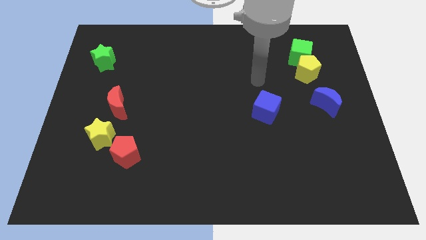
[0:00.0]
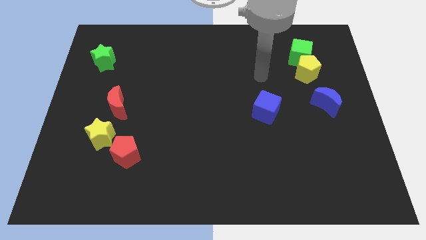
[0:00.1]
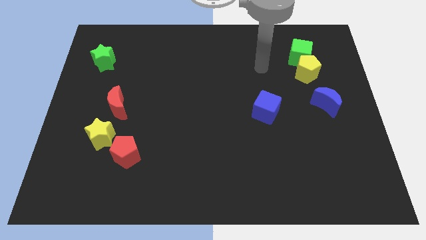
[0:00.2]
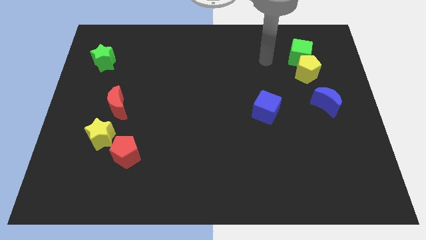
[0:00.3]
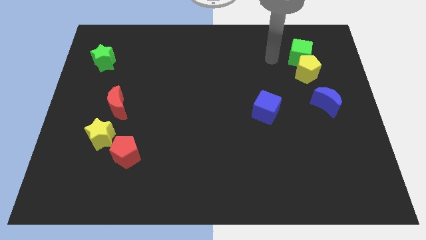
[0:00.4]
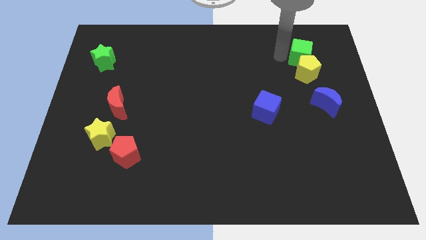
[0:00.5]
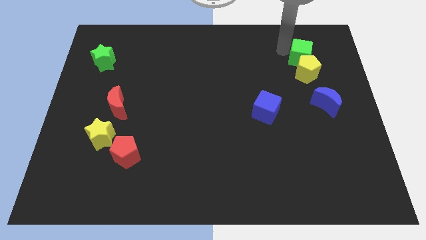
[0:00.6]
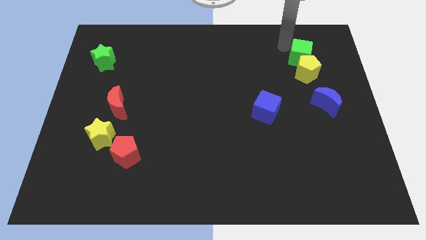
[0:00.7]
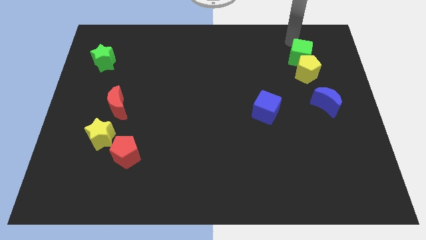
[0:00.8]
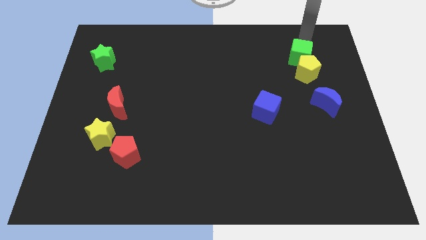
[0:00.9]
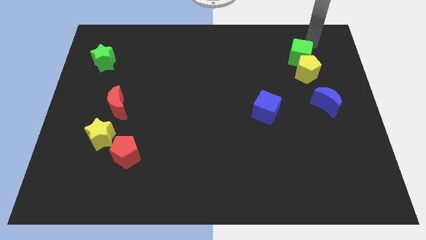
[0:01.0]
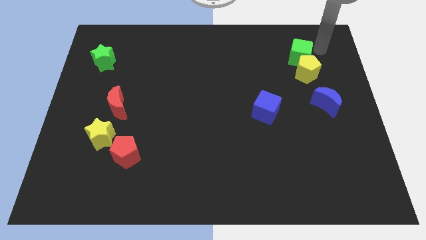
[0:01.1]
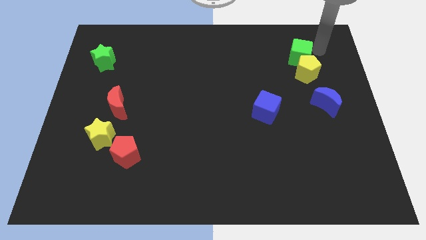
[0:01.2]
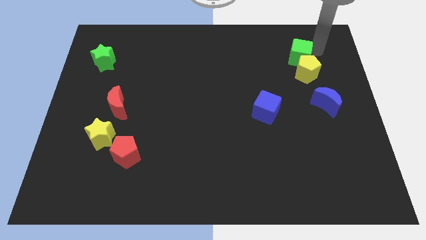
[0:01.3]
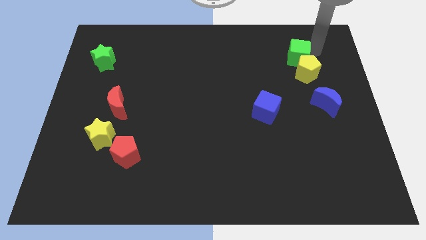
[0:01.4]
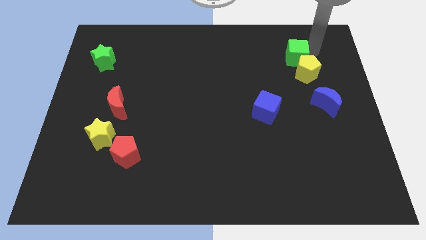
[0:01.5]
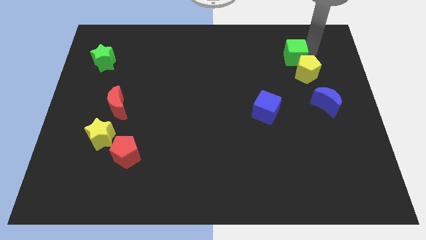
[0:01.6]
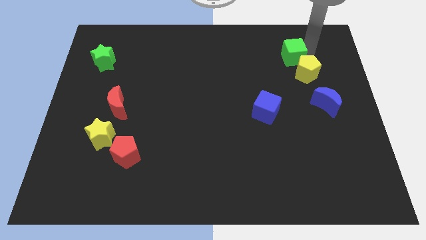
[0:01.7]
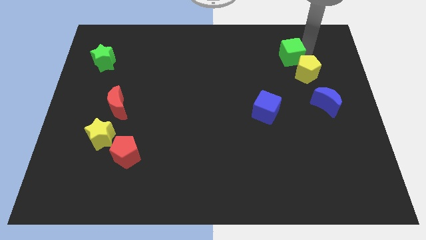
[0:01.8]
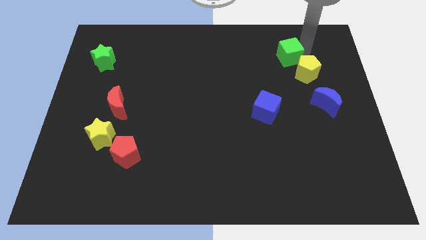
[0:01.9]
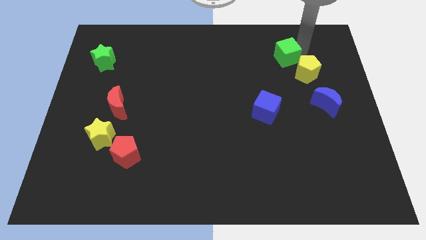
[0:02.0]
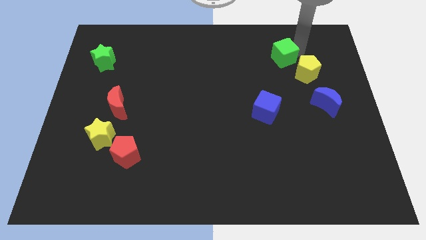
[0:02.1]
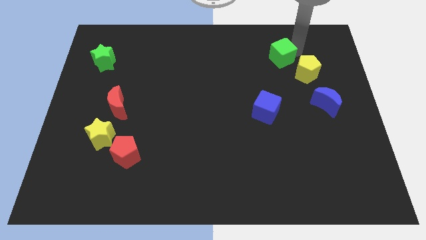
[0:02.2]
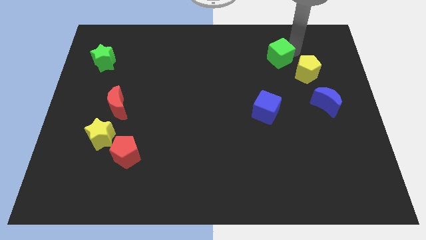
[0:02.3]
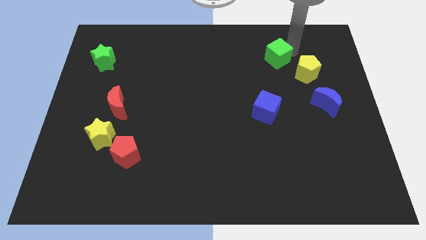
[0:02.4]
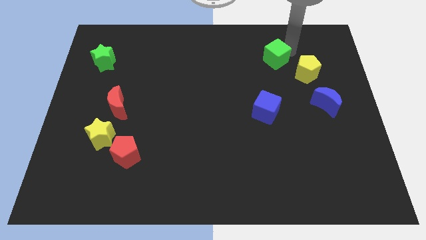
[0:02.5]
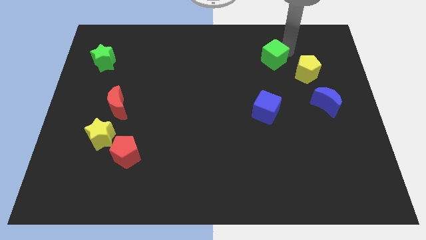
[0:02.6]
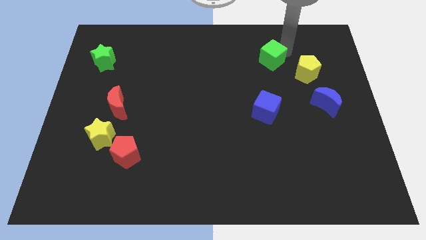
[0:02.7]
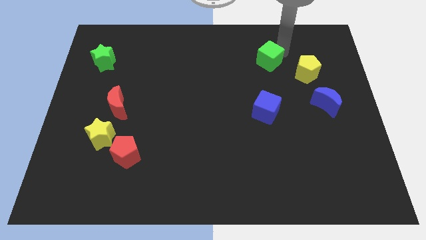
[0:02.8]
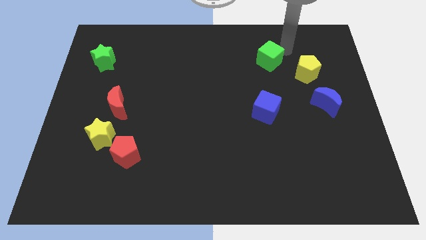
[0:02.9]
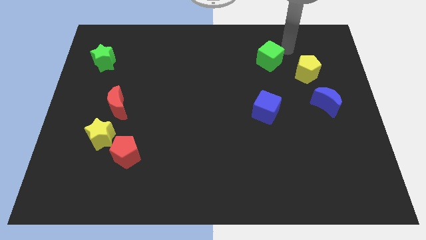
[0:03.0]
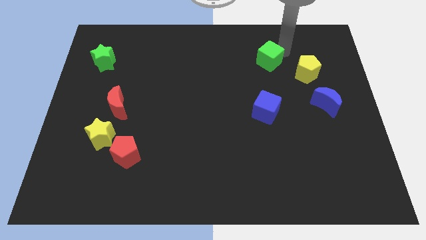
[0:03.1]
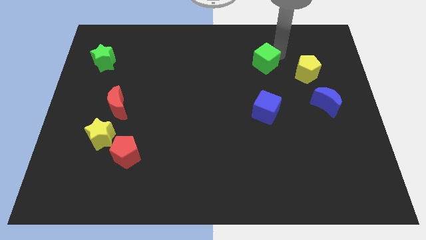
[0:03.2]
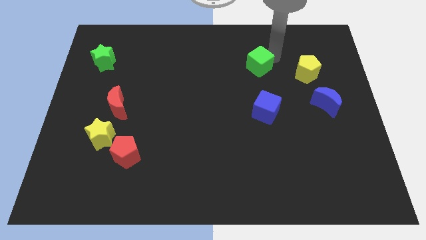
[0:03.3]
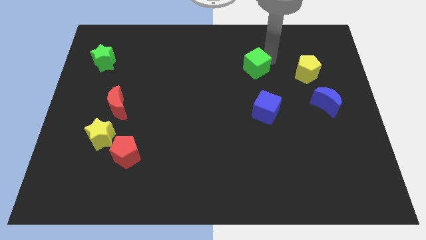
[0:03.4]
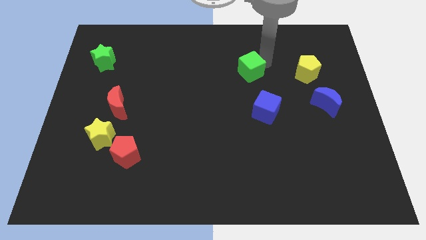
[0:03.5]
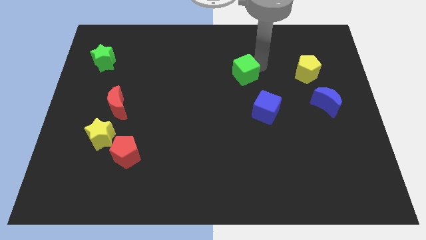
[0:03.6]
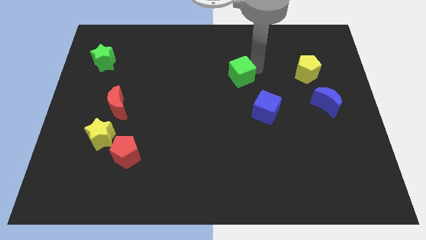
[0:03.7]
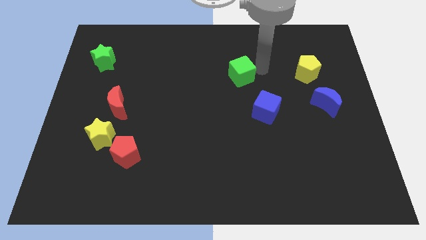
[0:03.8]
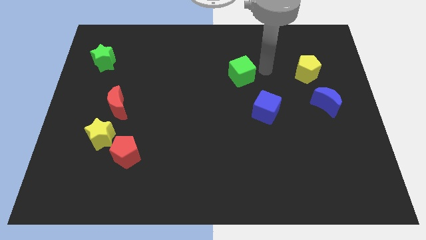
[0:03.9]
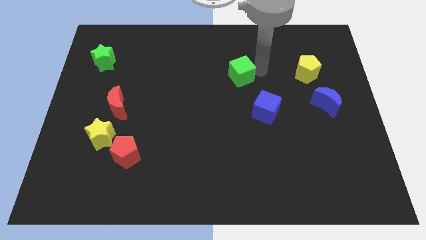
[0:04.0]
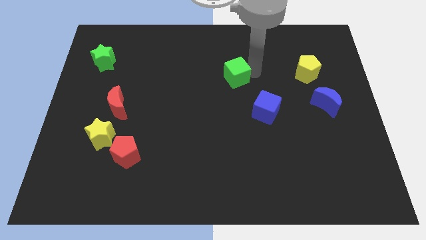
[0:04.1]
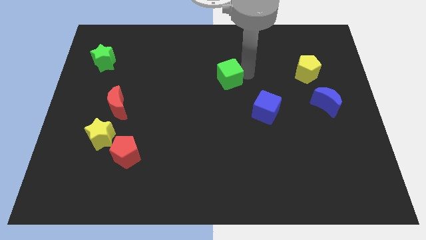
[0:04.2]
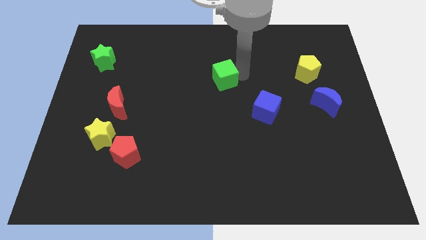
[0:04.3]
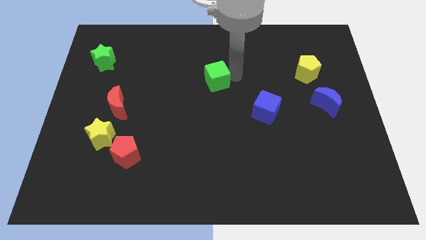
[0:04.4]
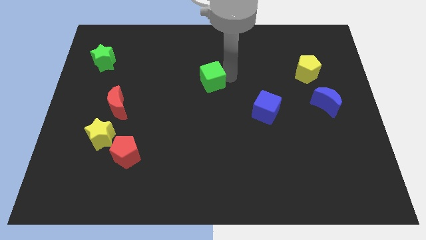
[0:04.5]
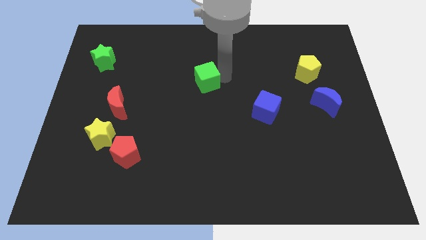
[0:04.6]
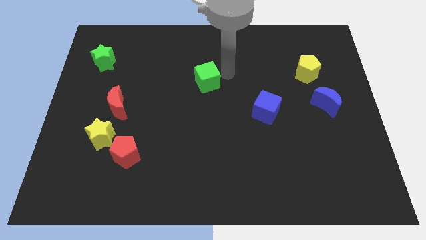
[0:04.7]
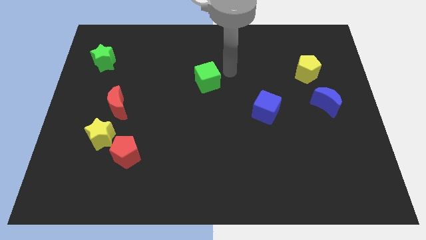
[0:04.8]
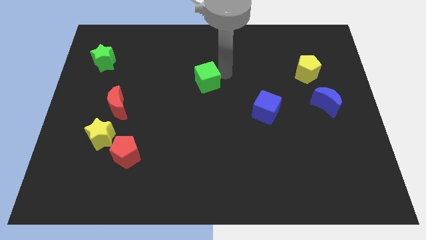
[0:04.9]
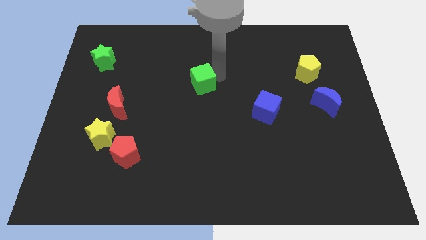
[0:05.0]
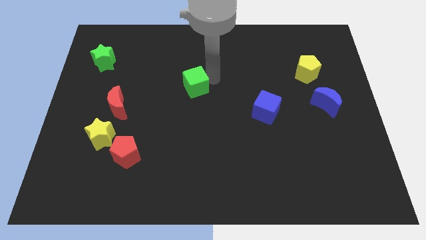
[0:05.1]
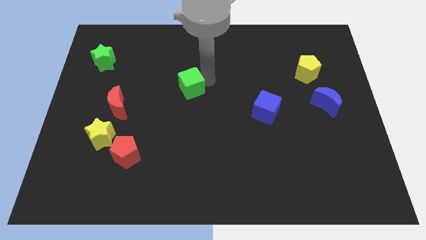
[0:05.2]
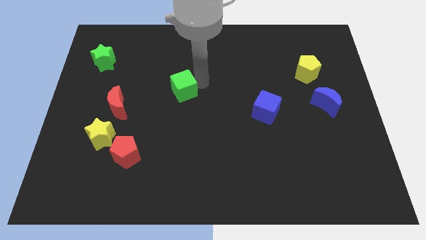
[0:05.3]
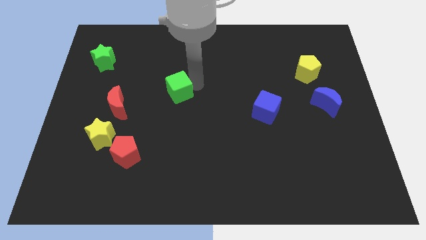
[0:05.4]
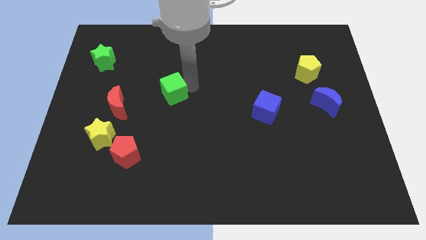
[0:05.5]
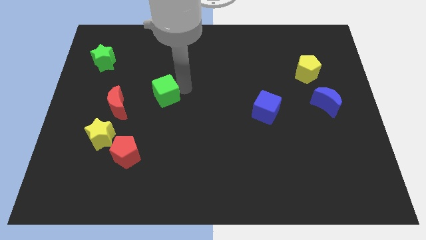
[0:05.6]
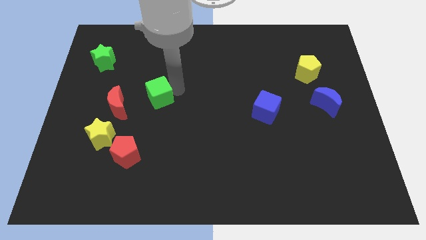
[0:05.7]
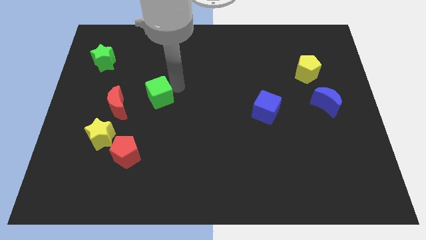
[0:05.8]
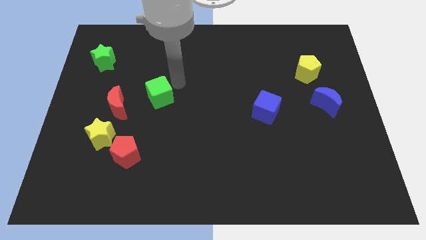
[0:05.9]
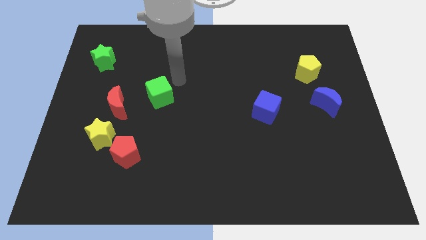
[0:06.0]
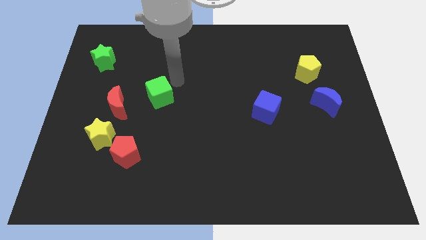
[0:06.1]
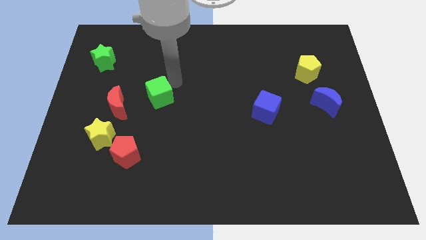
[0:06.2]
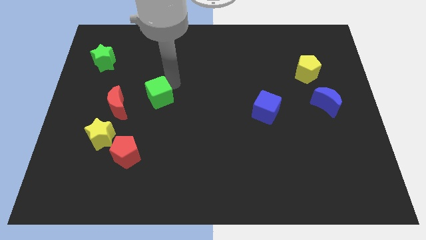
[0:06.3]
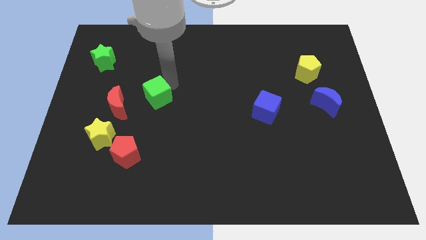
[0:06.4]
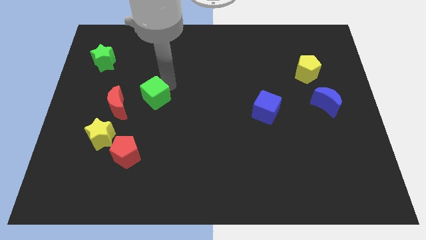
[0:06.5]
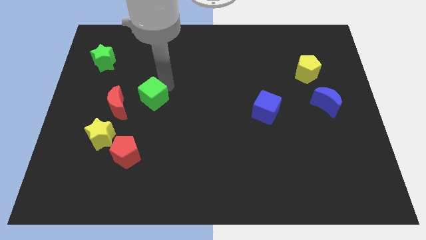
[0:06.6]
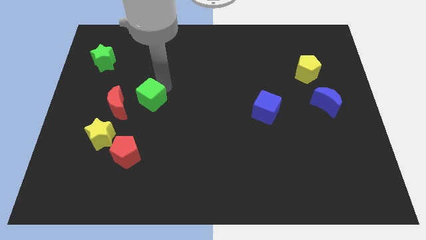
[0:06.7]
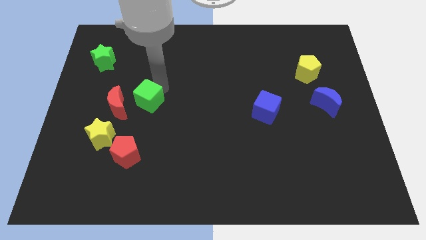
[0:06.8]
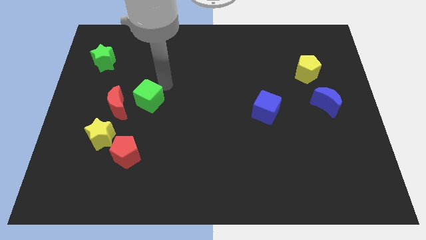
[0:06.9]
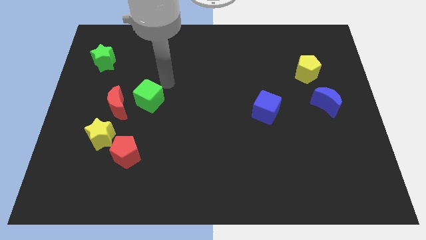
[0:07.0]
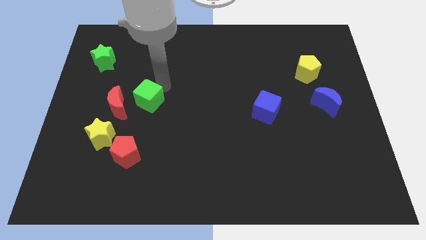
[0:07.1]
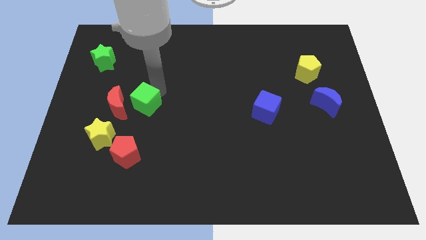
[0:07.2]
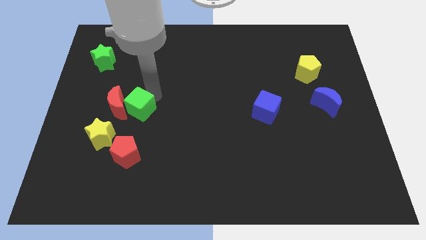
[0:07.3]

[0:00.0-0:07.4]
push the green cube to the top right of the yellow star
